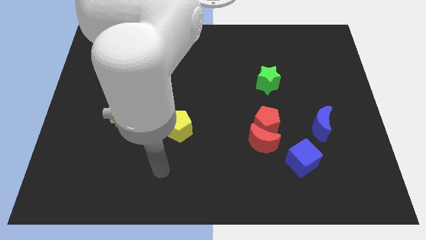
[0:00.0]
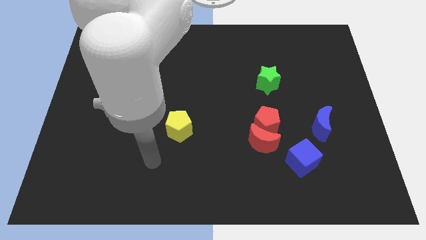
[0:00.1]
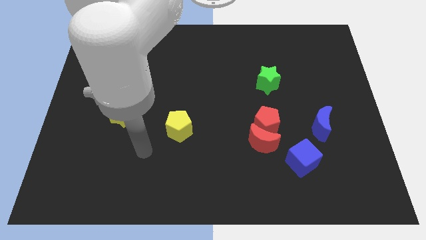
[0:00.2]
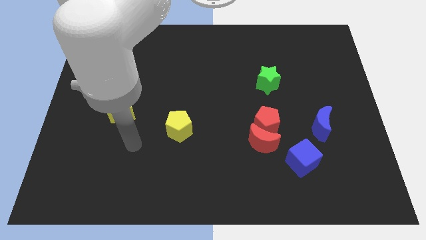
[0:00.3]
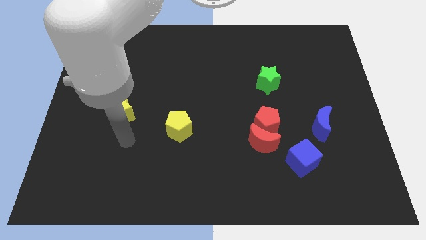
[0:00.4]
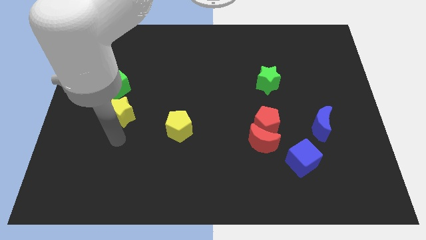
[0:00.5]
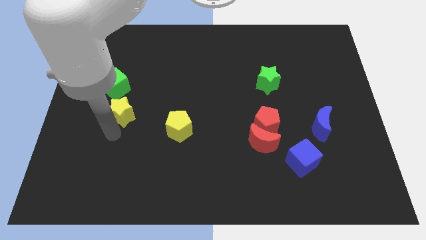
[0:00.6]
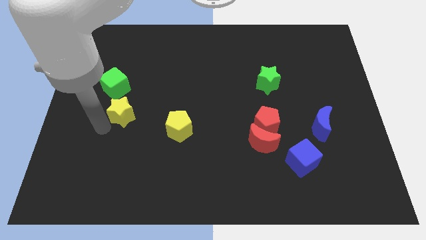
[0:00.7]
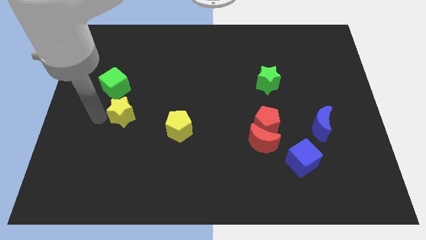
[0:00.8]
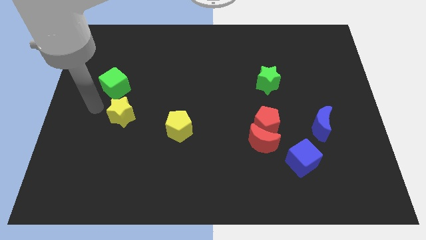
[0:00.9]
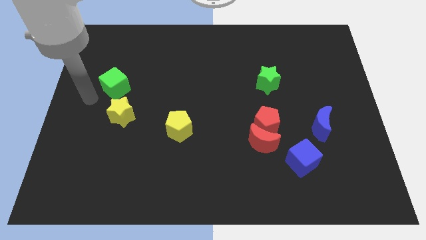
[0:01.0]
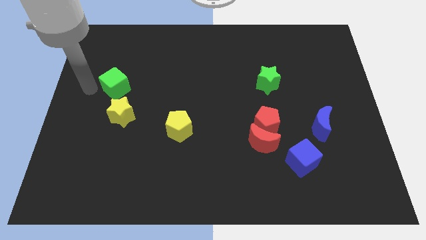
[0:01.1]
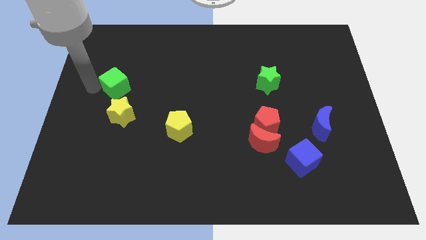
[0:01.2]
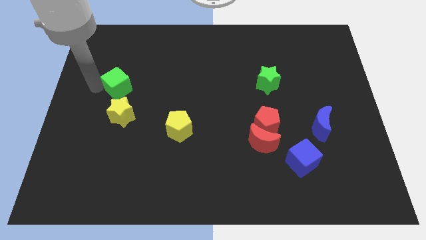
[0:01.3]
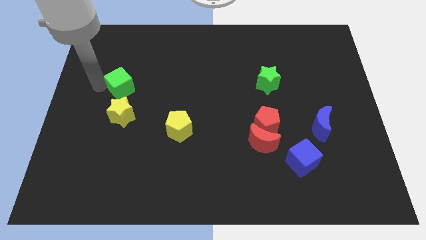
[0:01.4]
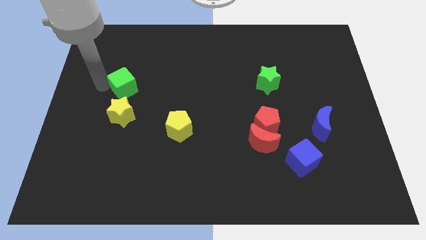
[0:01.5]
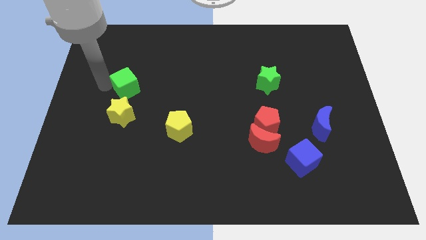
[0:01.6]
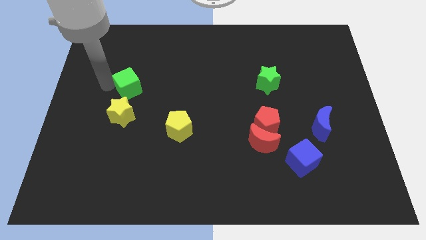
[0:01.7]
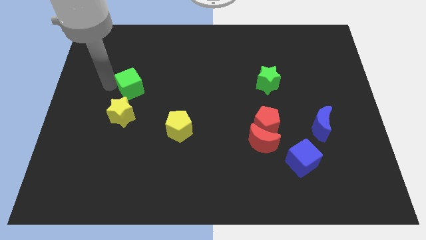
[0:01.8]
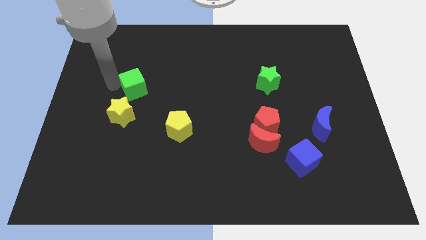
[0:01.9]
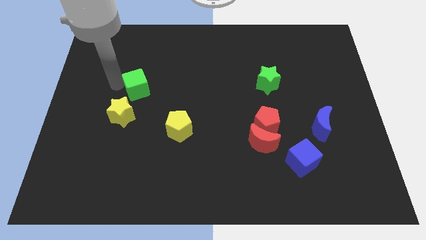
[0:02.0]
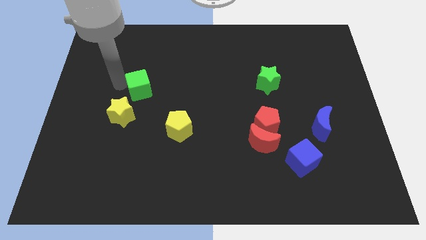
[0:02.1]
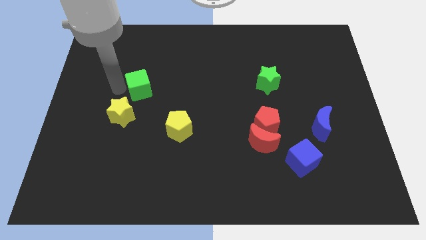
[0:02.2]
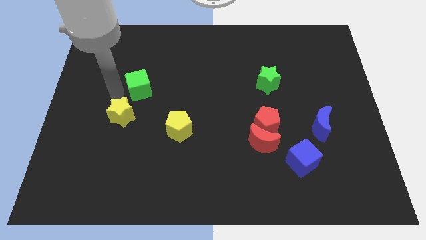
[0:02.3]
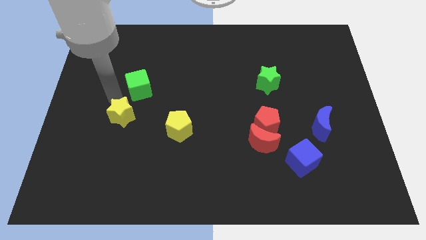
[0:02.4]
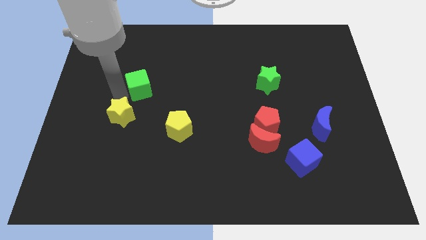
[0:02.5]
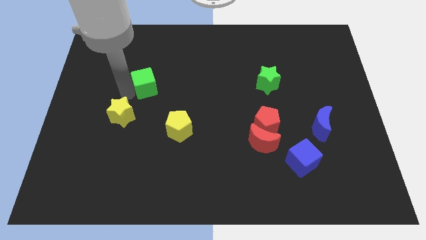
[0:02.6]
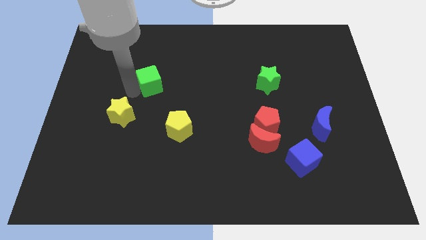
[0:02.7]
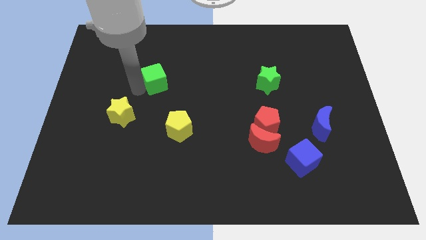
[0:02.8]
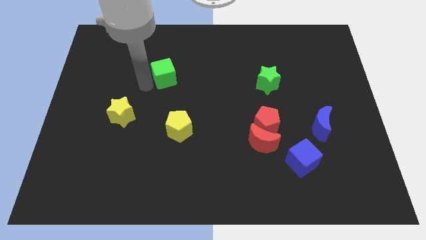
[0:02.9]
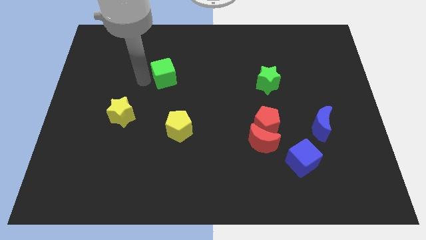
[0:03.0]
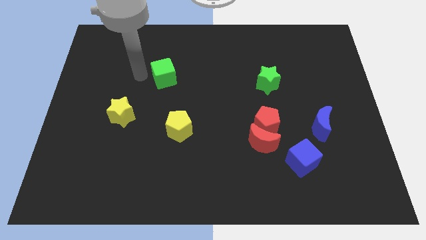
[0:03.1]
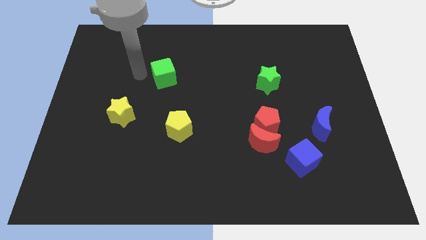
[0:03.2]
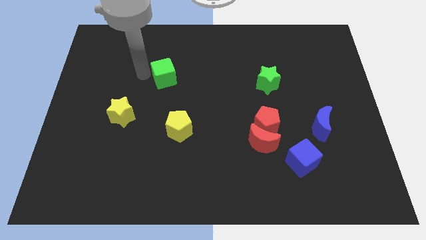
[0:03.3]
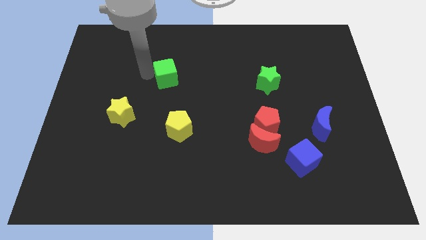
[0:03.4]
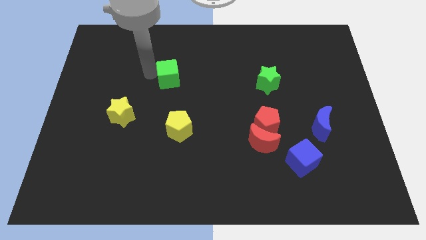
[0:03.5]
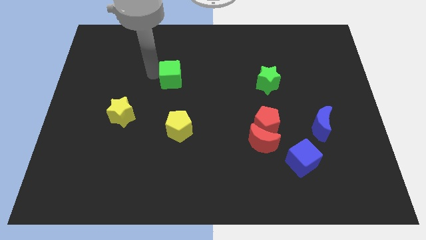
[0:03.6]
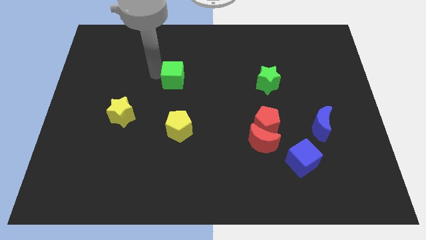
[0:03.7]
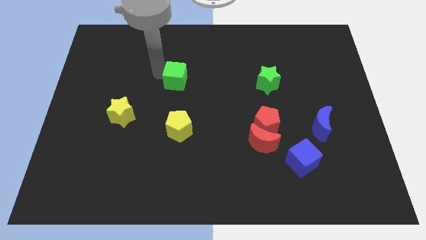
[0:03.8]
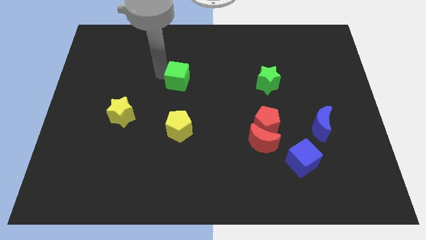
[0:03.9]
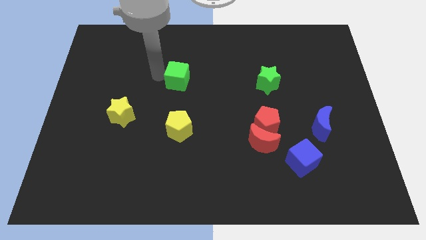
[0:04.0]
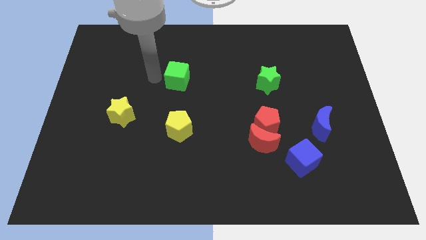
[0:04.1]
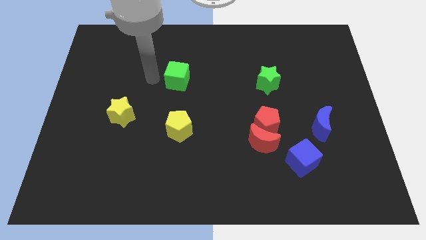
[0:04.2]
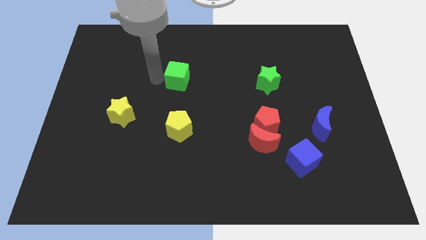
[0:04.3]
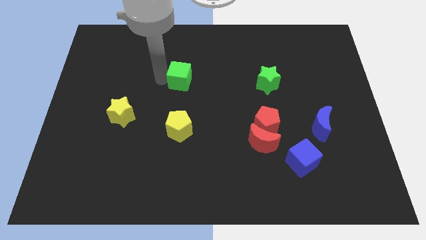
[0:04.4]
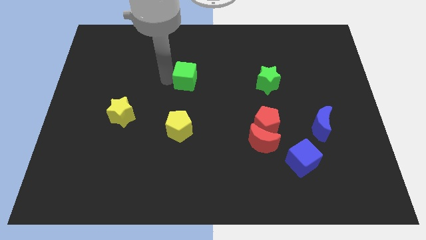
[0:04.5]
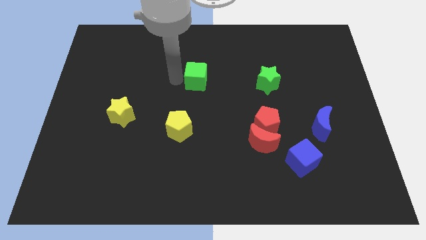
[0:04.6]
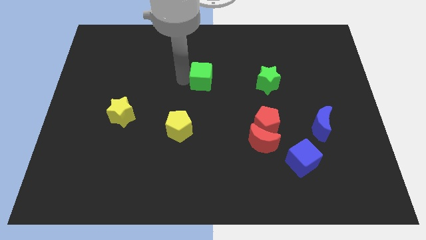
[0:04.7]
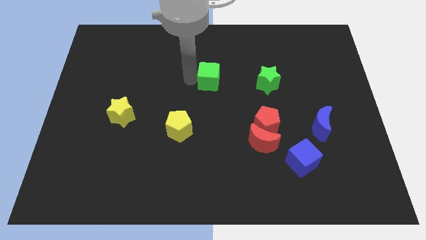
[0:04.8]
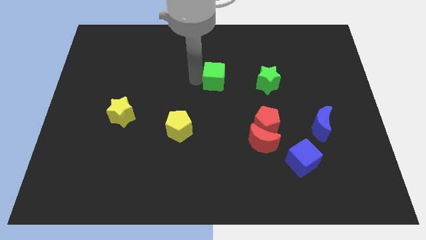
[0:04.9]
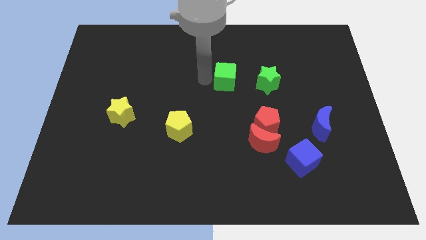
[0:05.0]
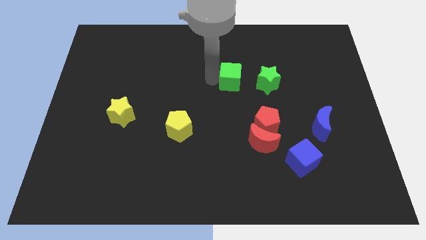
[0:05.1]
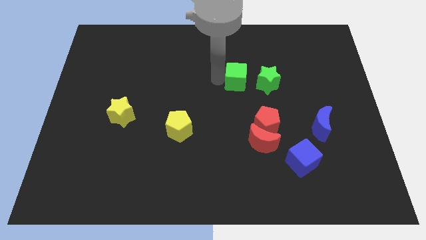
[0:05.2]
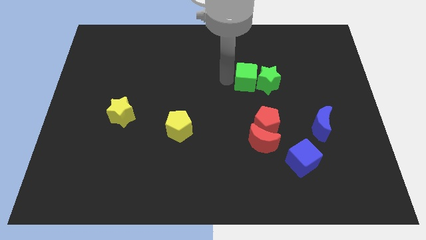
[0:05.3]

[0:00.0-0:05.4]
move the green cube close to the green star

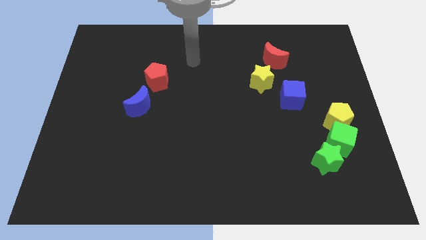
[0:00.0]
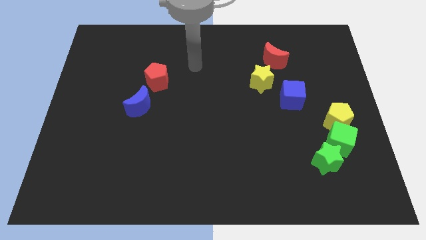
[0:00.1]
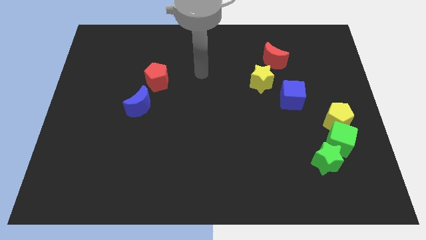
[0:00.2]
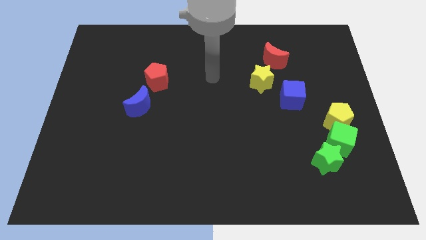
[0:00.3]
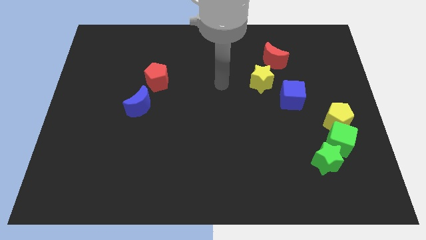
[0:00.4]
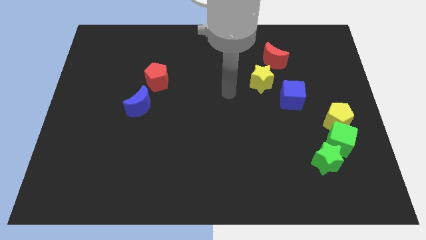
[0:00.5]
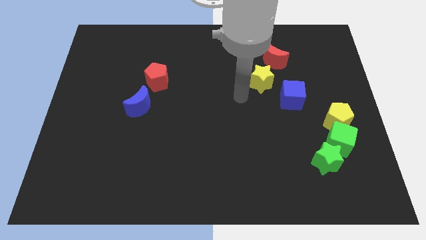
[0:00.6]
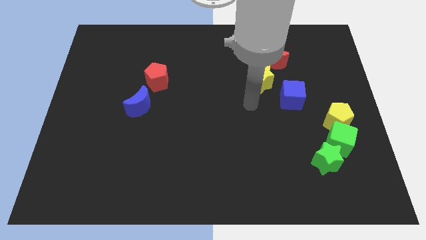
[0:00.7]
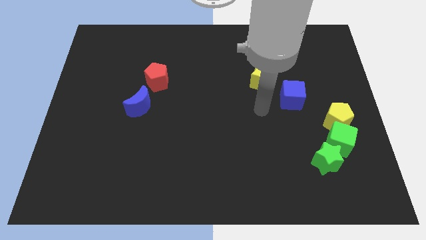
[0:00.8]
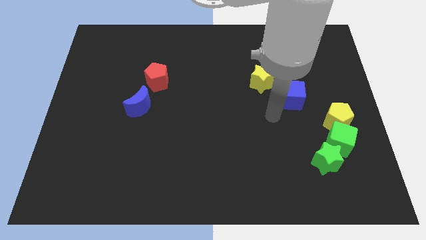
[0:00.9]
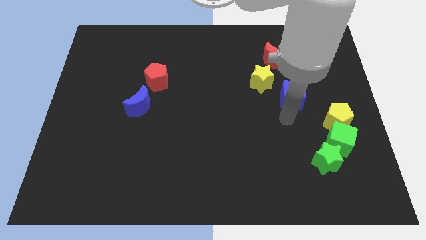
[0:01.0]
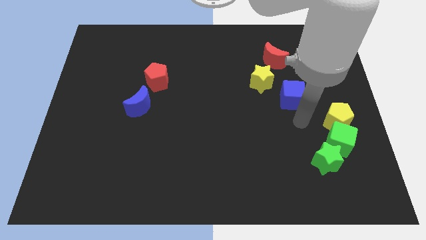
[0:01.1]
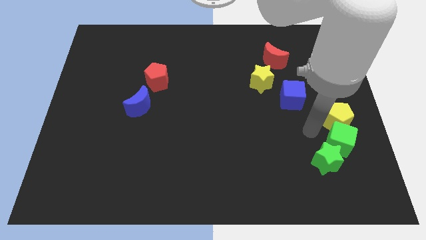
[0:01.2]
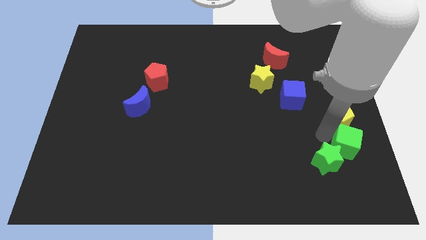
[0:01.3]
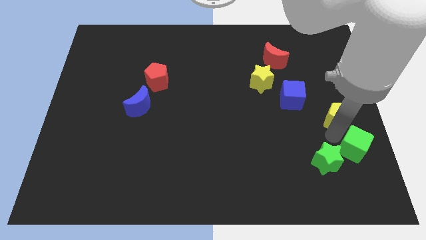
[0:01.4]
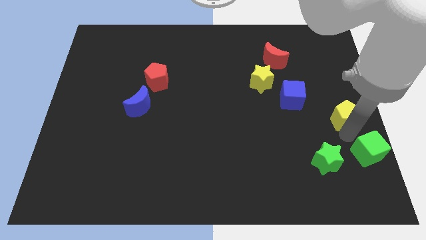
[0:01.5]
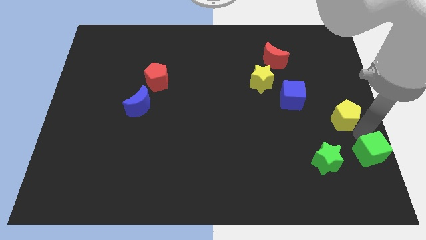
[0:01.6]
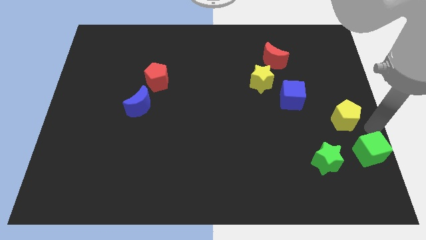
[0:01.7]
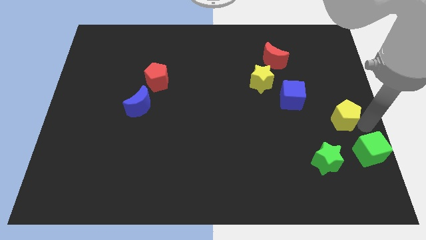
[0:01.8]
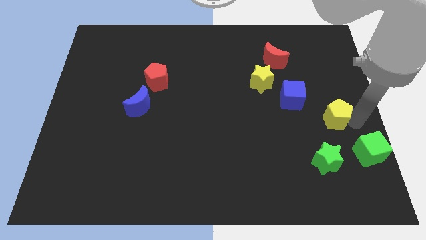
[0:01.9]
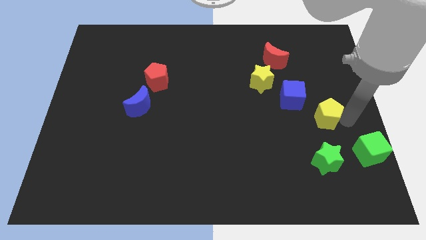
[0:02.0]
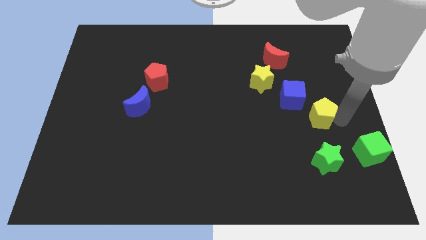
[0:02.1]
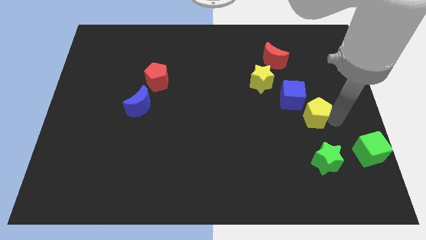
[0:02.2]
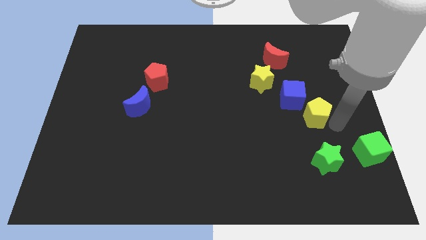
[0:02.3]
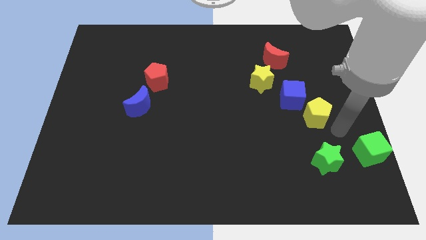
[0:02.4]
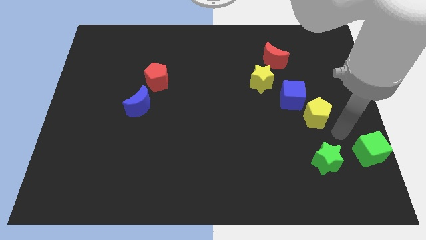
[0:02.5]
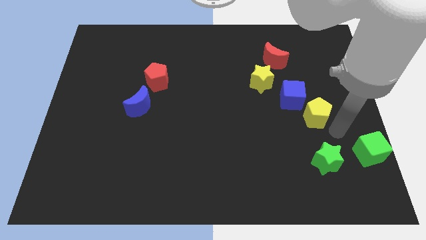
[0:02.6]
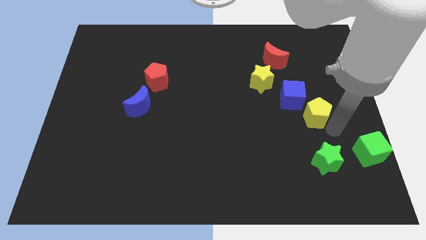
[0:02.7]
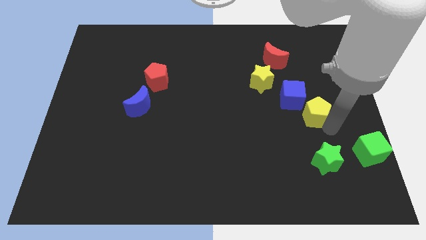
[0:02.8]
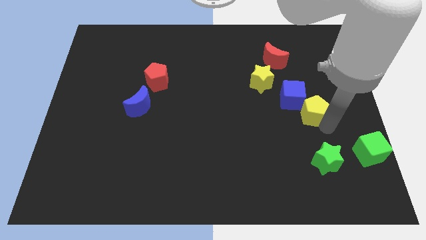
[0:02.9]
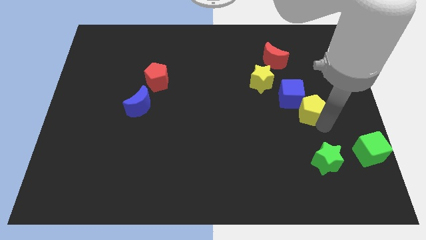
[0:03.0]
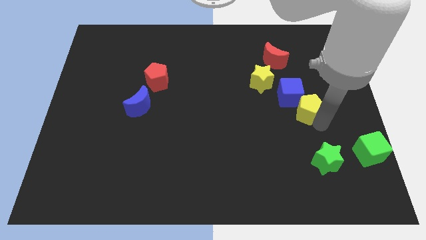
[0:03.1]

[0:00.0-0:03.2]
move the yellow pentagon next to the blue cube
